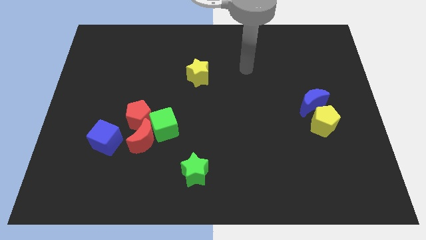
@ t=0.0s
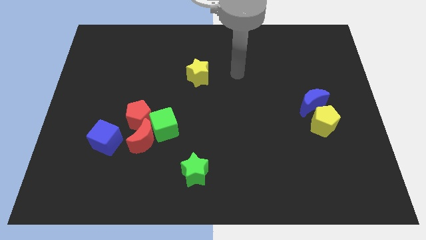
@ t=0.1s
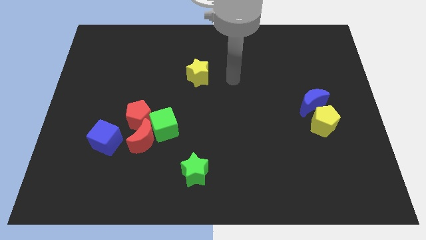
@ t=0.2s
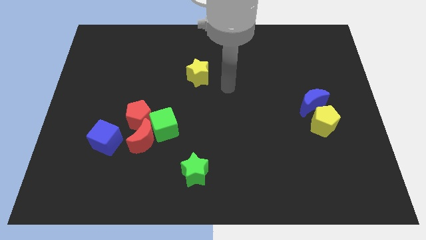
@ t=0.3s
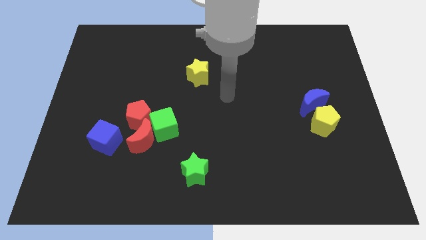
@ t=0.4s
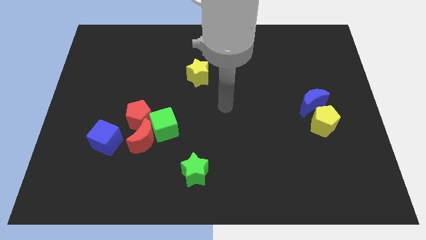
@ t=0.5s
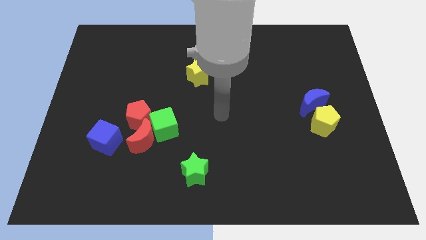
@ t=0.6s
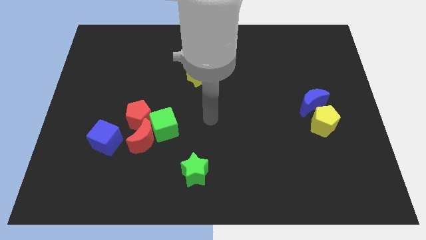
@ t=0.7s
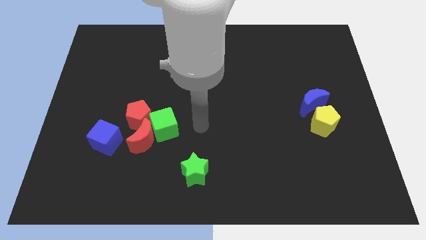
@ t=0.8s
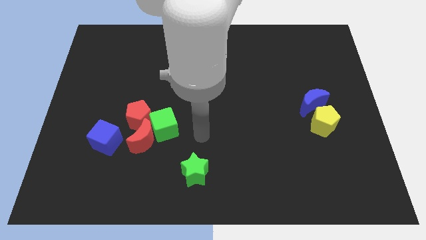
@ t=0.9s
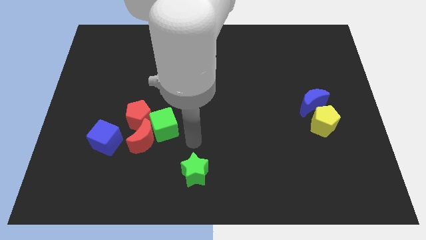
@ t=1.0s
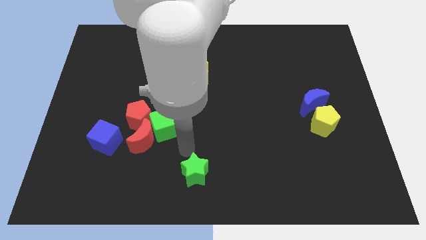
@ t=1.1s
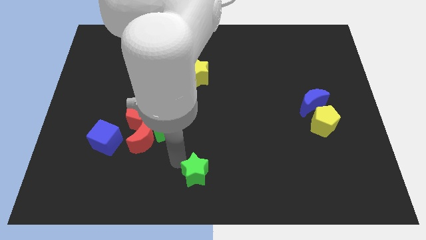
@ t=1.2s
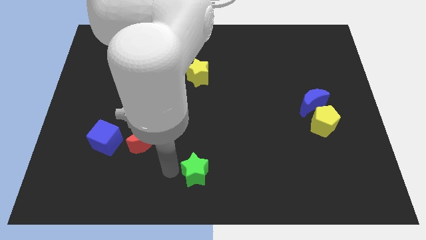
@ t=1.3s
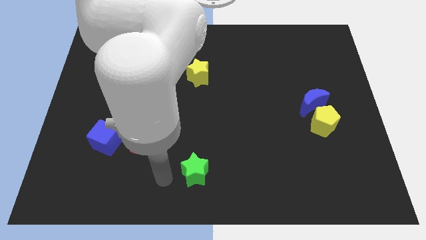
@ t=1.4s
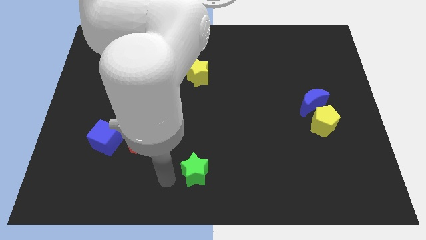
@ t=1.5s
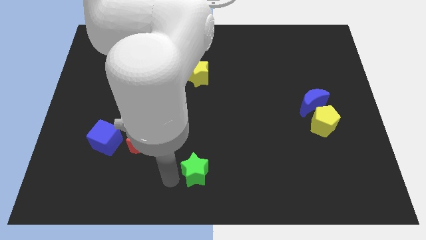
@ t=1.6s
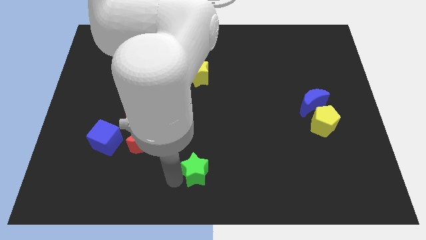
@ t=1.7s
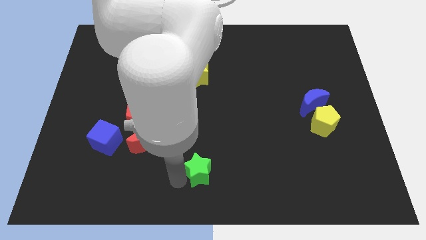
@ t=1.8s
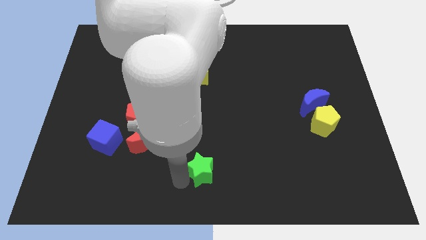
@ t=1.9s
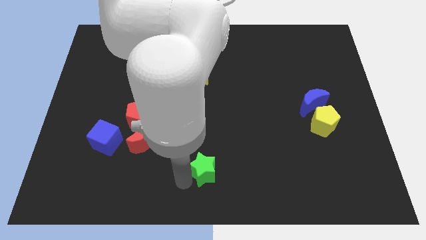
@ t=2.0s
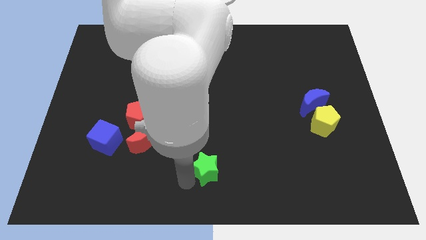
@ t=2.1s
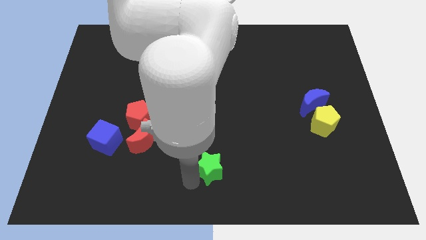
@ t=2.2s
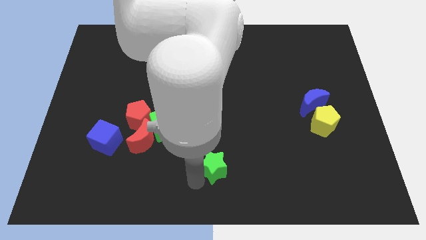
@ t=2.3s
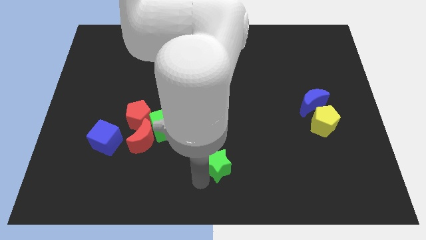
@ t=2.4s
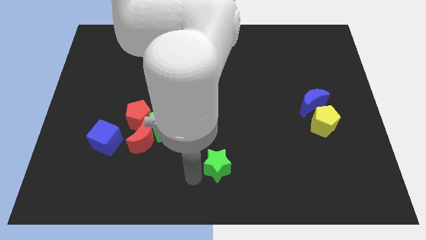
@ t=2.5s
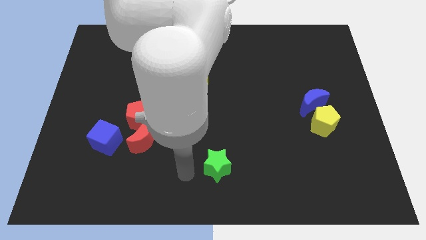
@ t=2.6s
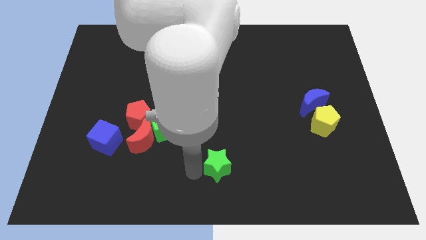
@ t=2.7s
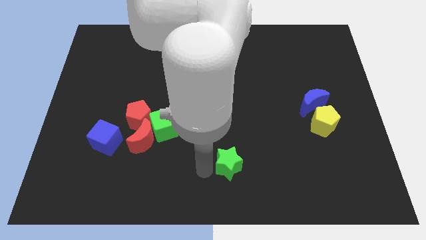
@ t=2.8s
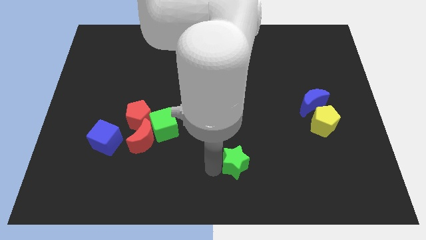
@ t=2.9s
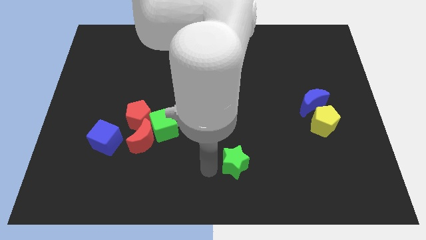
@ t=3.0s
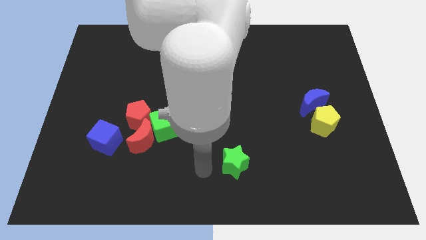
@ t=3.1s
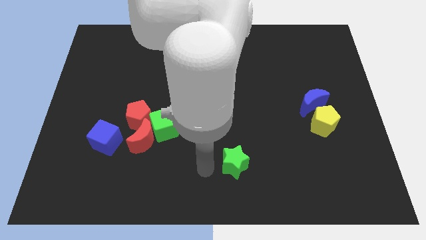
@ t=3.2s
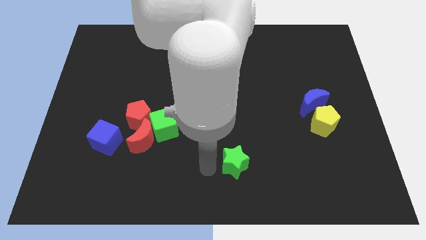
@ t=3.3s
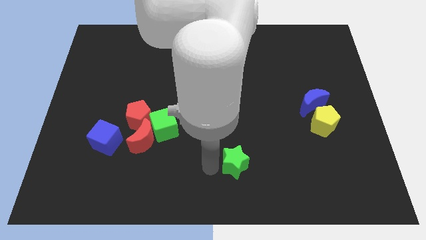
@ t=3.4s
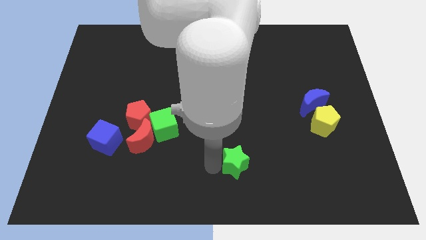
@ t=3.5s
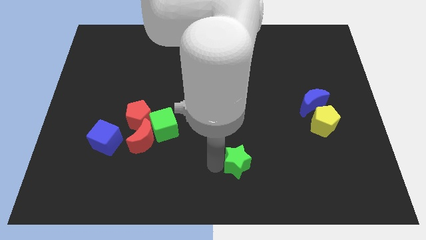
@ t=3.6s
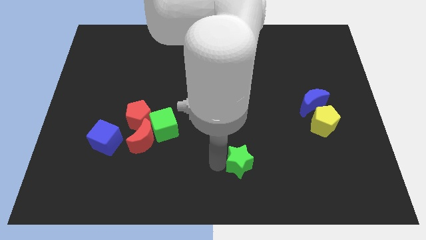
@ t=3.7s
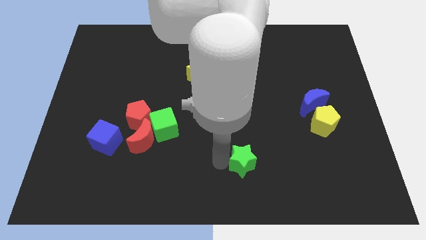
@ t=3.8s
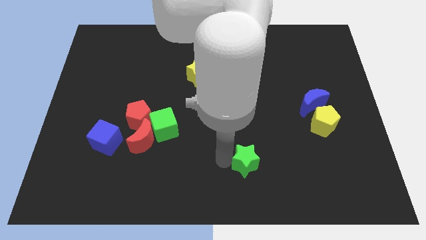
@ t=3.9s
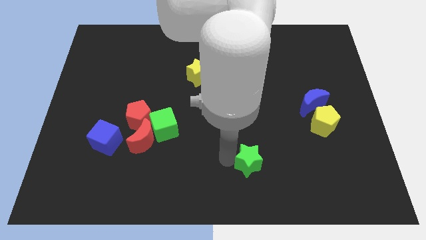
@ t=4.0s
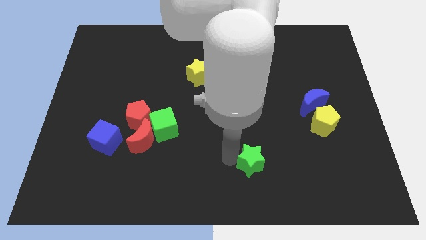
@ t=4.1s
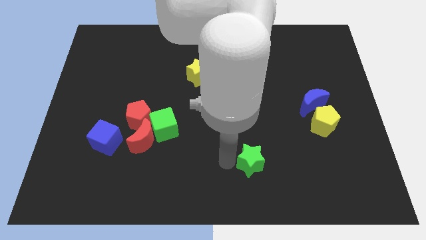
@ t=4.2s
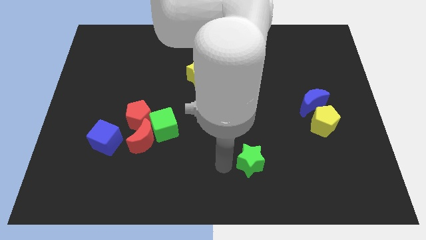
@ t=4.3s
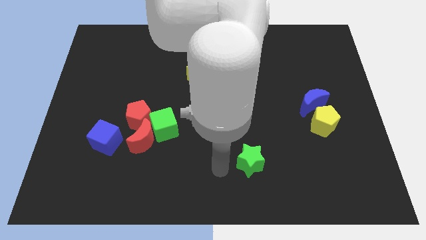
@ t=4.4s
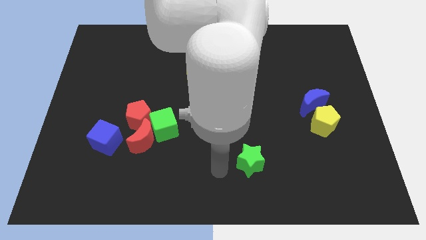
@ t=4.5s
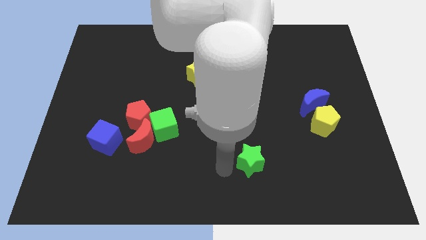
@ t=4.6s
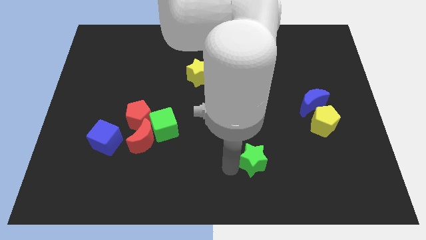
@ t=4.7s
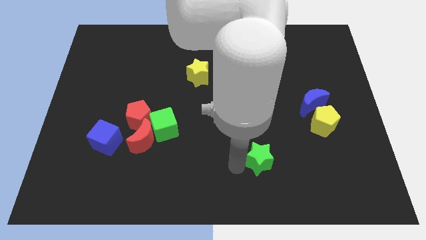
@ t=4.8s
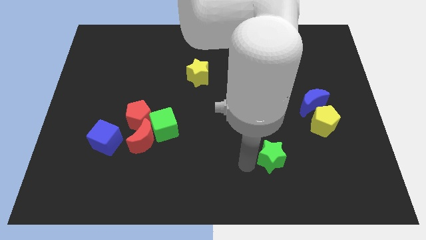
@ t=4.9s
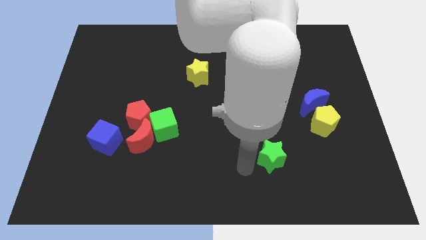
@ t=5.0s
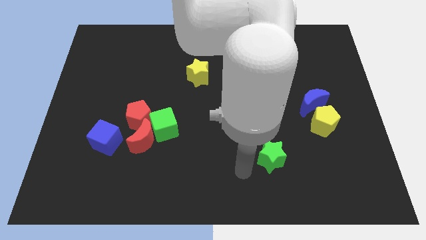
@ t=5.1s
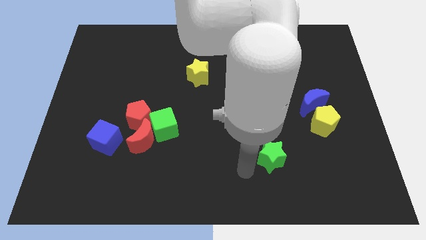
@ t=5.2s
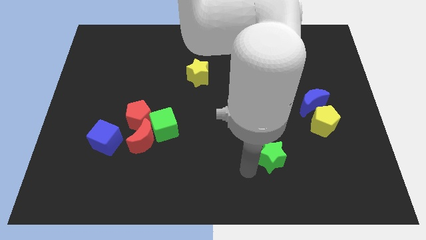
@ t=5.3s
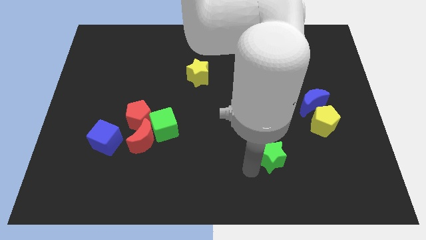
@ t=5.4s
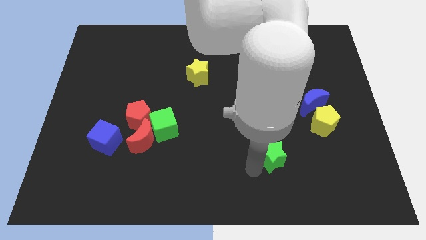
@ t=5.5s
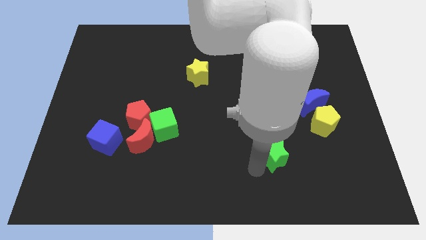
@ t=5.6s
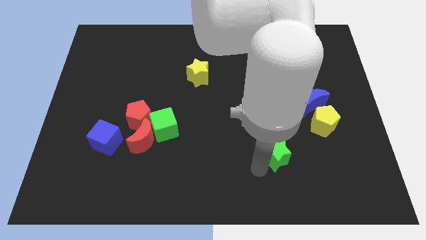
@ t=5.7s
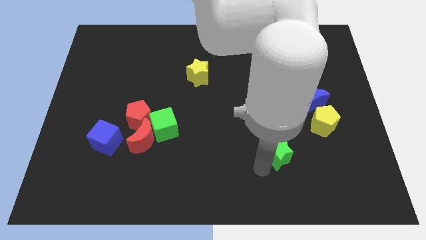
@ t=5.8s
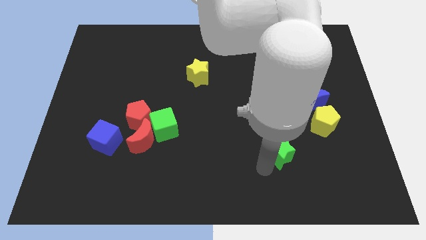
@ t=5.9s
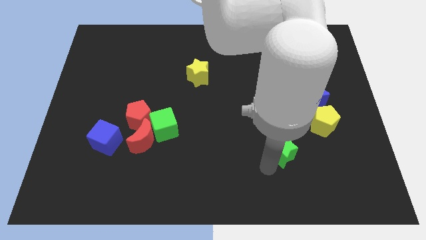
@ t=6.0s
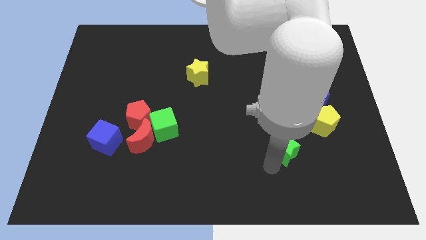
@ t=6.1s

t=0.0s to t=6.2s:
put the green star to the bottom left of the yellow pentagon

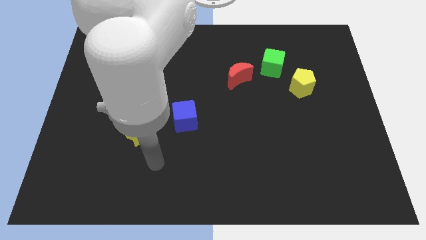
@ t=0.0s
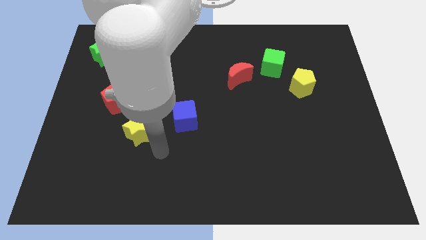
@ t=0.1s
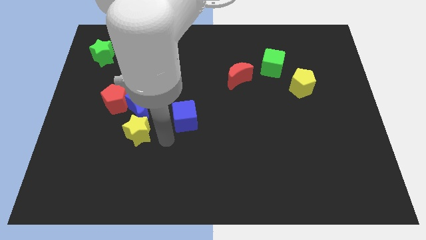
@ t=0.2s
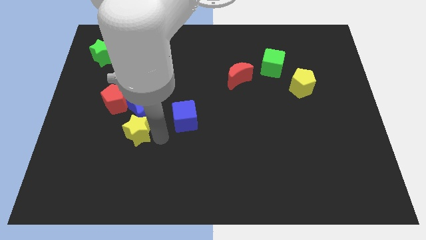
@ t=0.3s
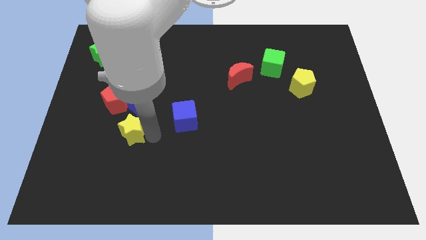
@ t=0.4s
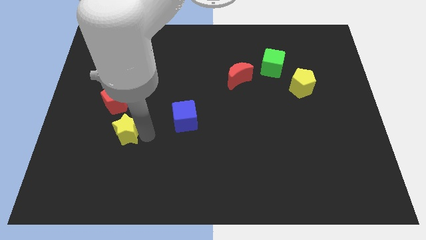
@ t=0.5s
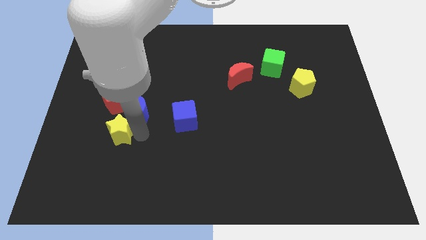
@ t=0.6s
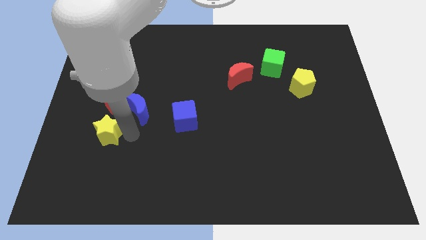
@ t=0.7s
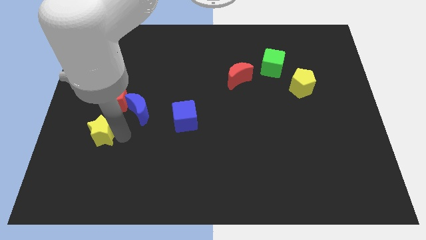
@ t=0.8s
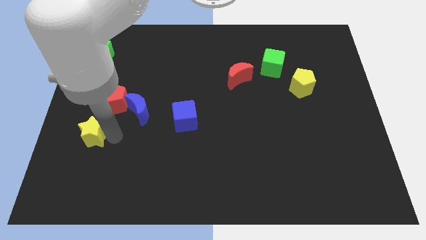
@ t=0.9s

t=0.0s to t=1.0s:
put the yellow star to the bottom left of the red pentagon
